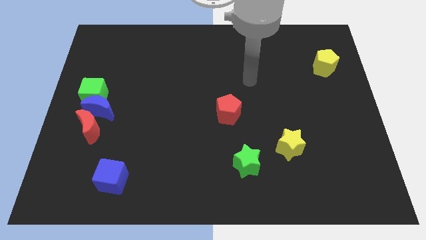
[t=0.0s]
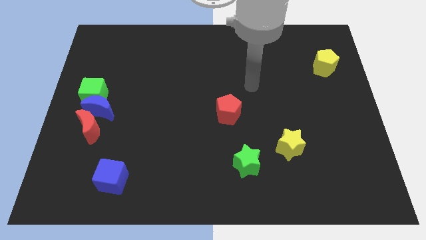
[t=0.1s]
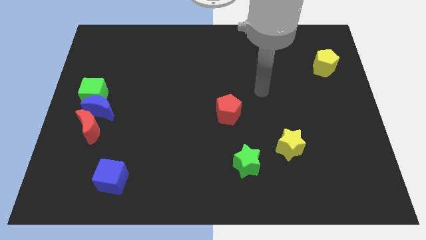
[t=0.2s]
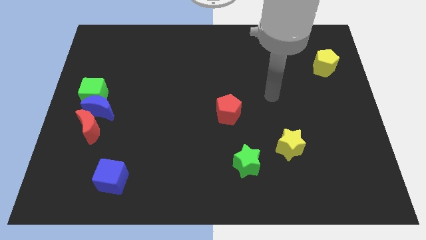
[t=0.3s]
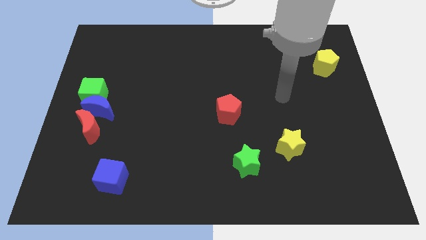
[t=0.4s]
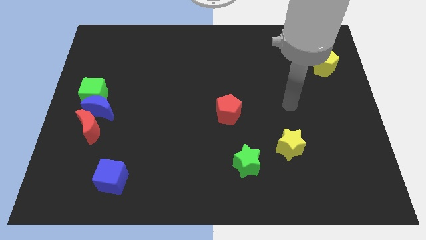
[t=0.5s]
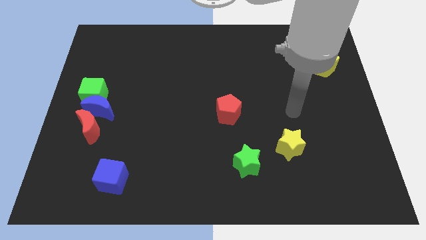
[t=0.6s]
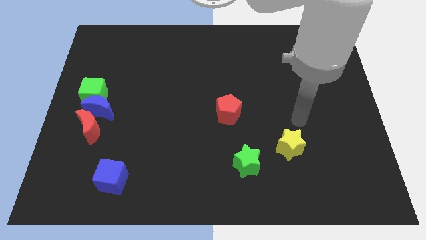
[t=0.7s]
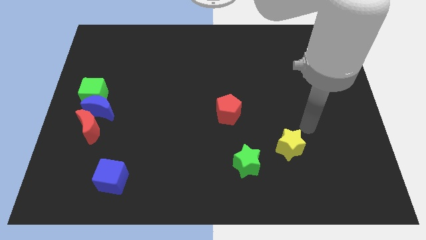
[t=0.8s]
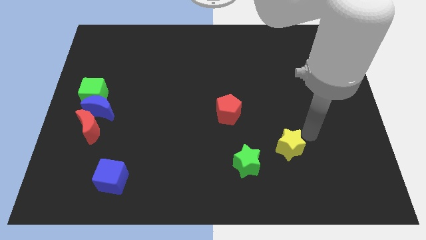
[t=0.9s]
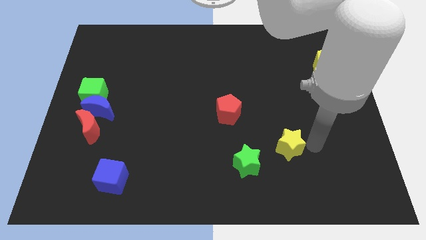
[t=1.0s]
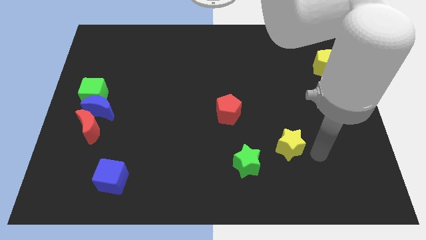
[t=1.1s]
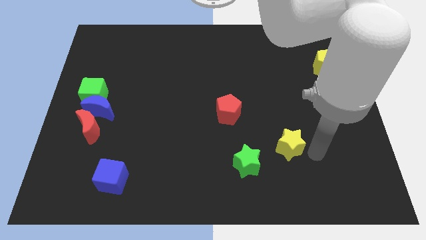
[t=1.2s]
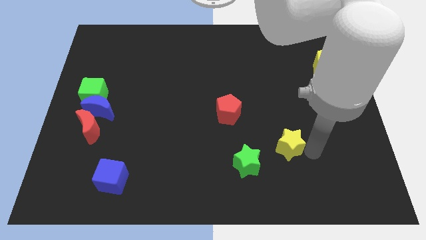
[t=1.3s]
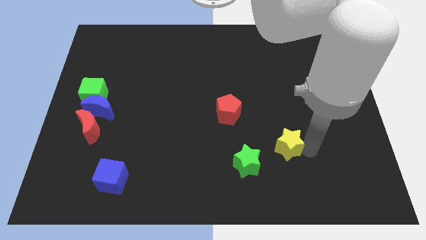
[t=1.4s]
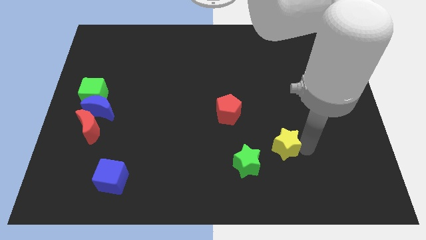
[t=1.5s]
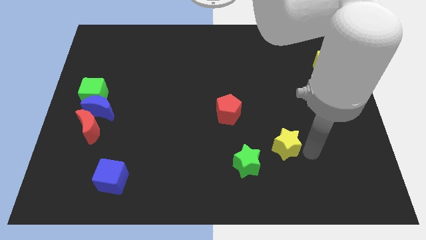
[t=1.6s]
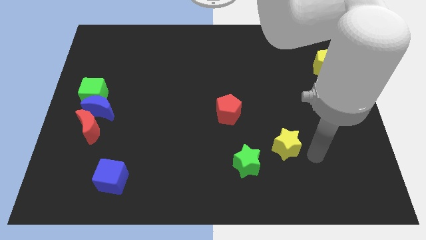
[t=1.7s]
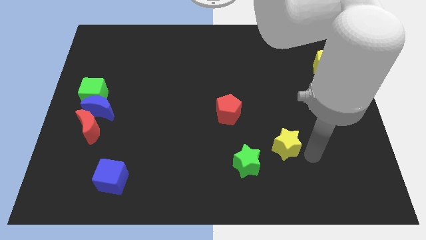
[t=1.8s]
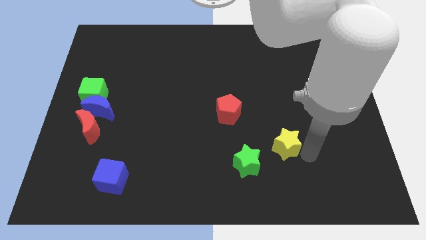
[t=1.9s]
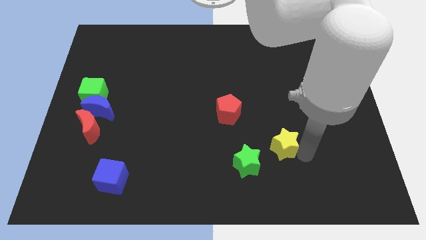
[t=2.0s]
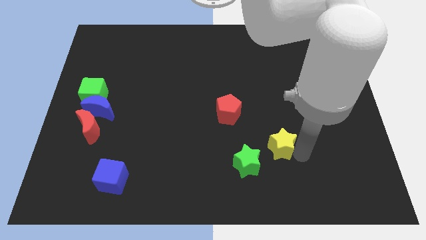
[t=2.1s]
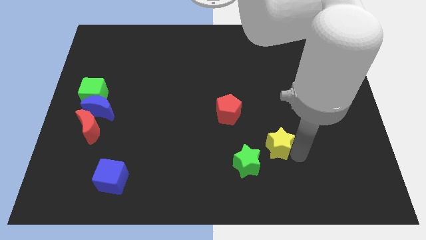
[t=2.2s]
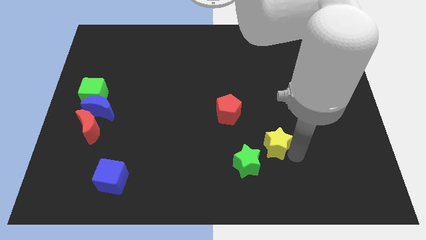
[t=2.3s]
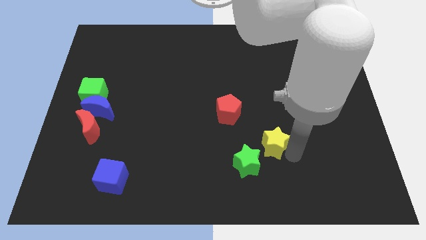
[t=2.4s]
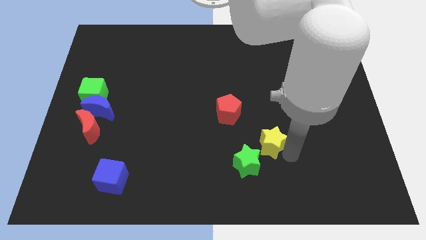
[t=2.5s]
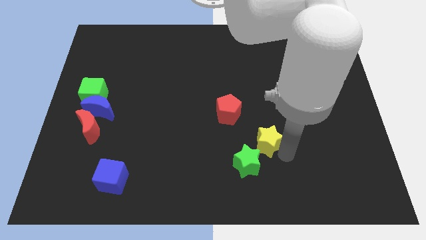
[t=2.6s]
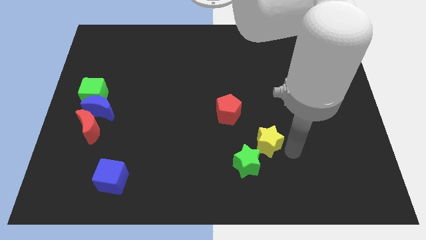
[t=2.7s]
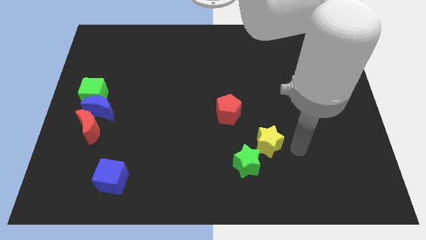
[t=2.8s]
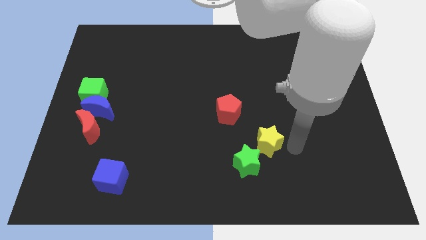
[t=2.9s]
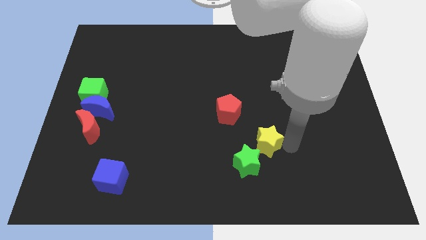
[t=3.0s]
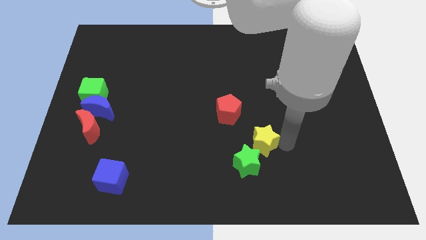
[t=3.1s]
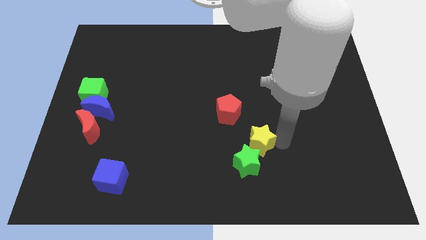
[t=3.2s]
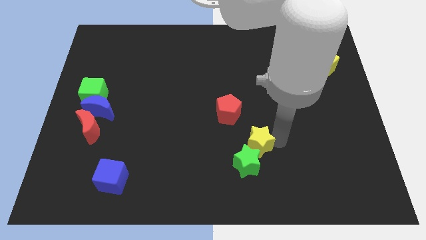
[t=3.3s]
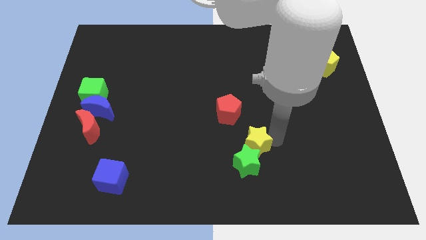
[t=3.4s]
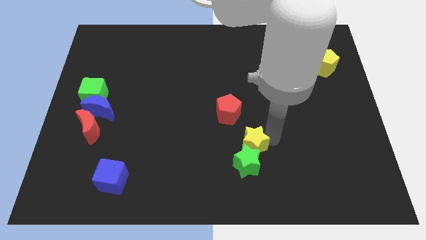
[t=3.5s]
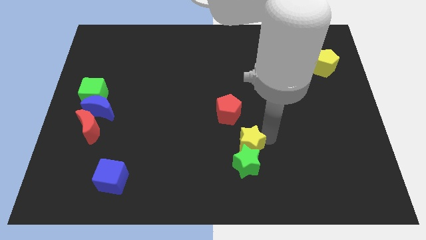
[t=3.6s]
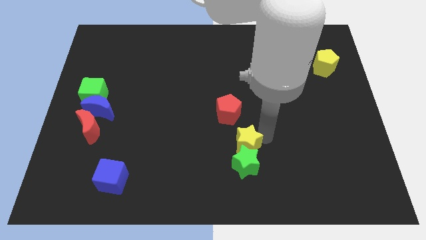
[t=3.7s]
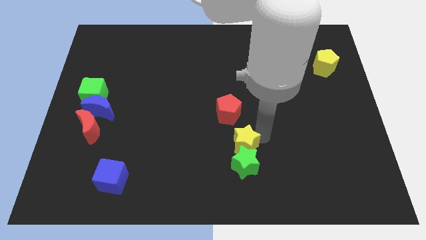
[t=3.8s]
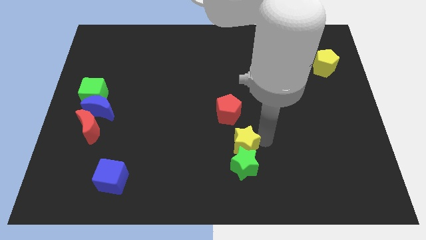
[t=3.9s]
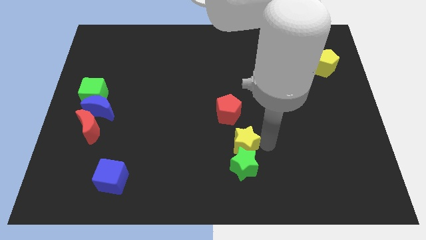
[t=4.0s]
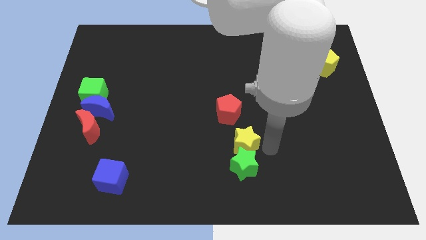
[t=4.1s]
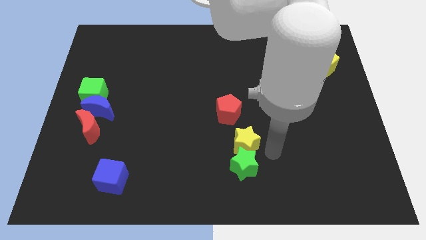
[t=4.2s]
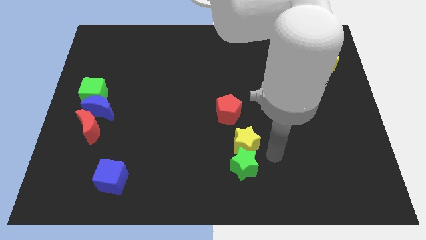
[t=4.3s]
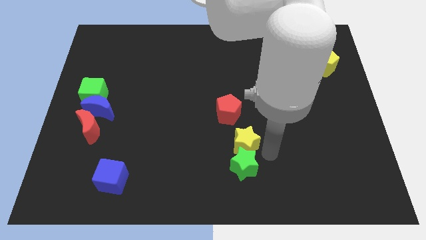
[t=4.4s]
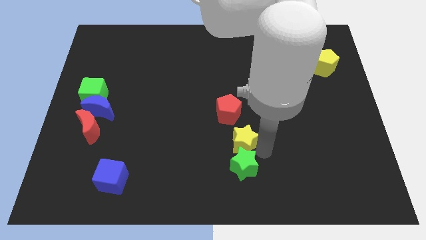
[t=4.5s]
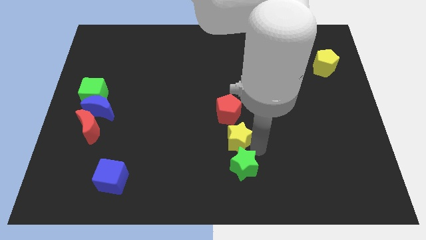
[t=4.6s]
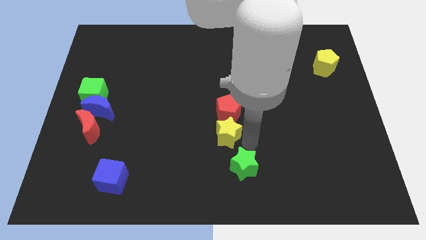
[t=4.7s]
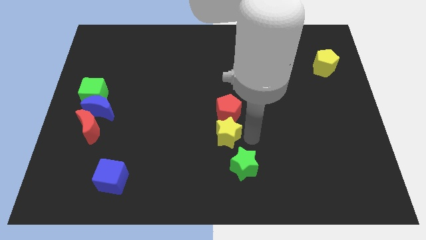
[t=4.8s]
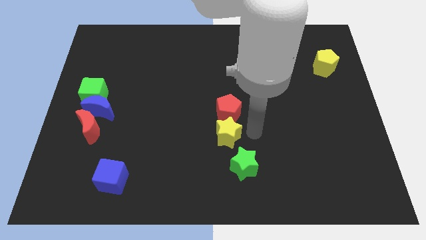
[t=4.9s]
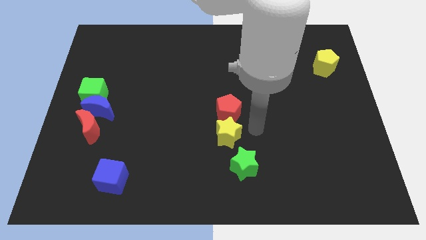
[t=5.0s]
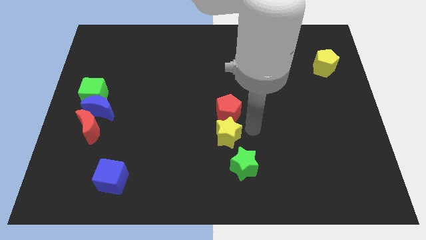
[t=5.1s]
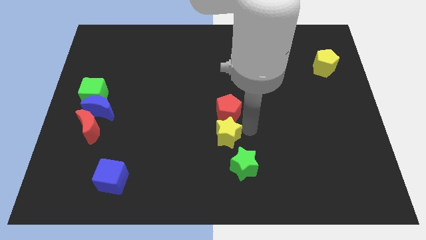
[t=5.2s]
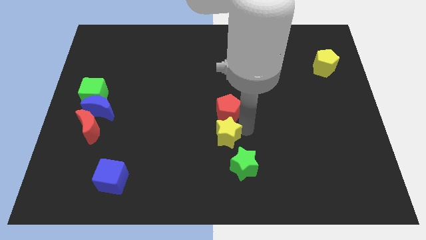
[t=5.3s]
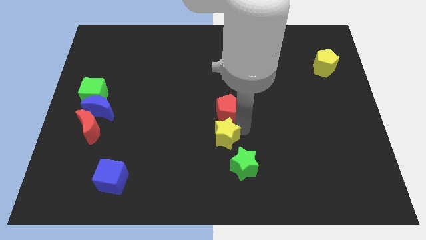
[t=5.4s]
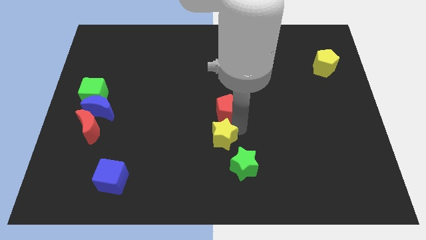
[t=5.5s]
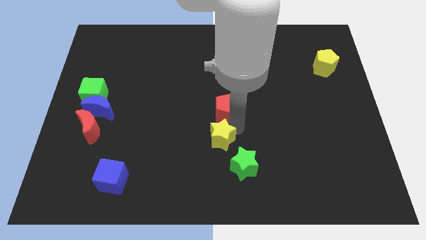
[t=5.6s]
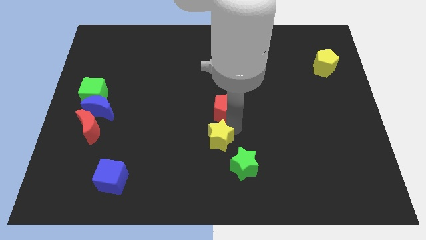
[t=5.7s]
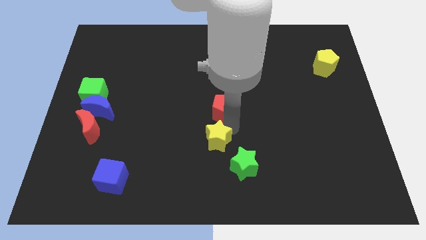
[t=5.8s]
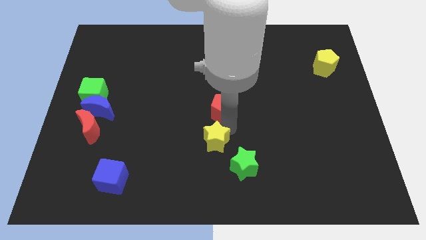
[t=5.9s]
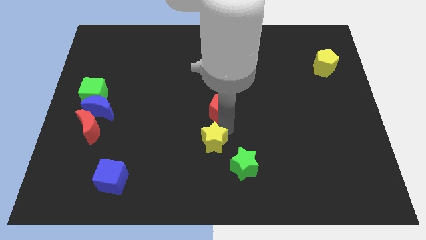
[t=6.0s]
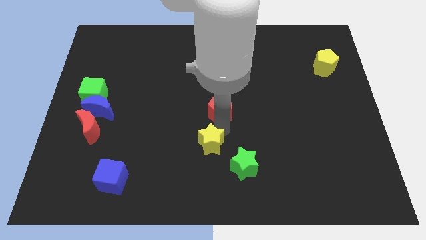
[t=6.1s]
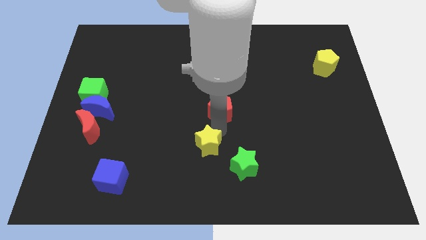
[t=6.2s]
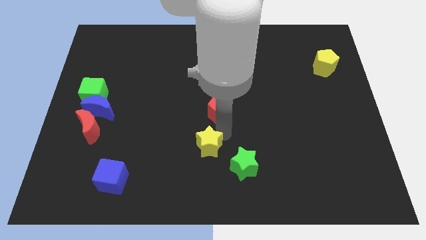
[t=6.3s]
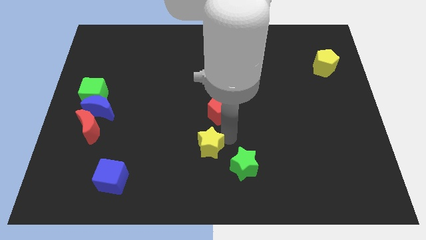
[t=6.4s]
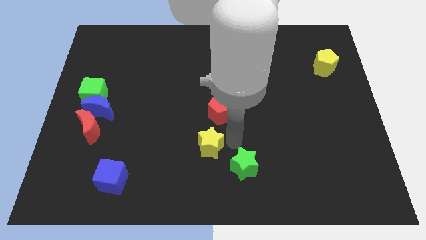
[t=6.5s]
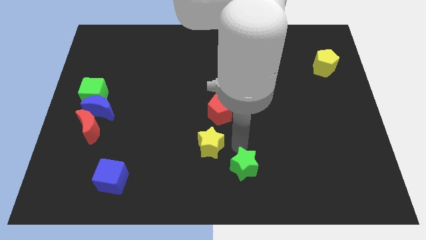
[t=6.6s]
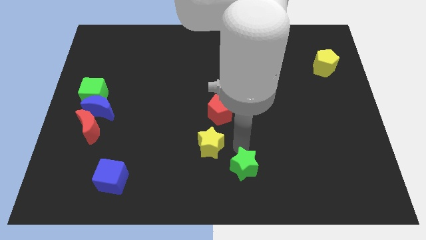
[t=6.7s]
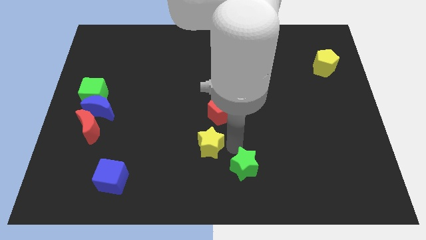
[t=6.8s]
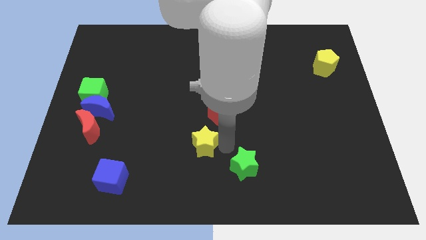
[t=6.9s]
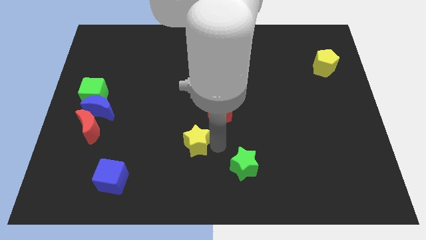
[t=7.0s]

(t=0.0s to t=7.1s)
move the yellow star to the left

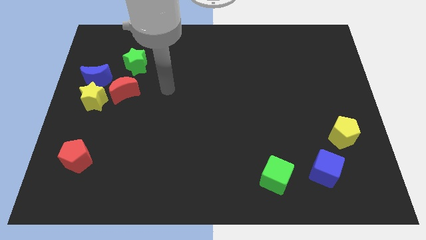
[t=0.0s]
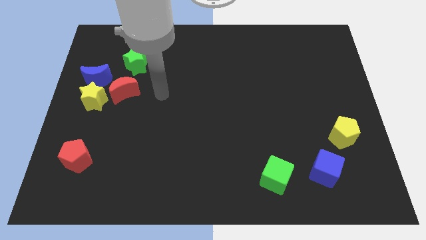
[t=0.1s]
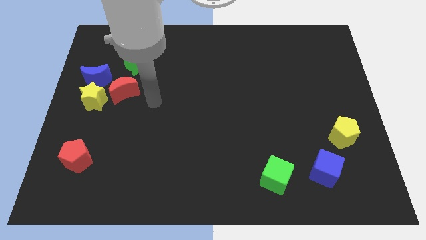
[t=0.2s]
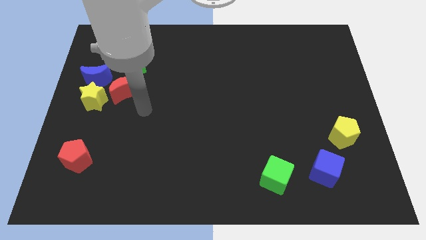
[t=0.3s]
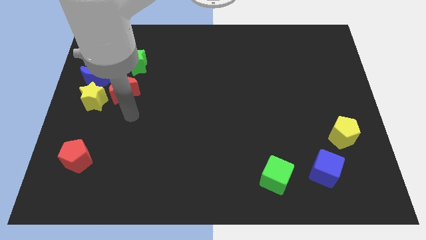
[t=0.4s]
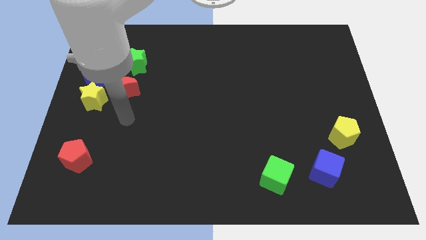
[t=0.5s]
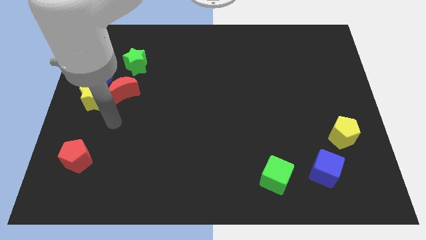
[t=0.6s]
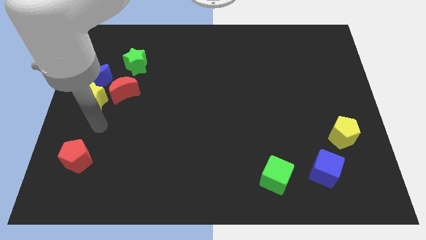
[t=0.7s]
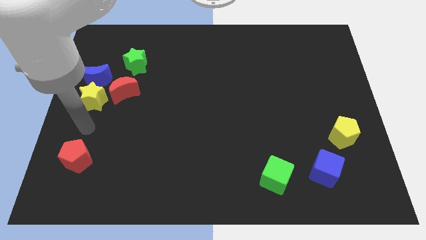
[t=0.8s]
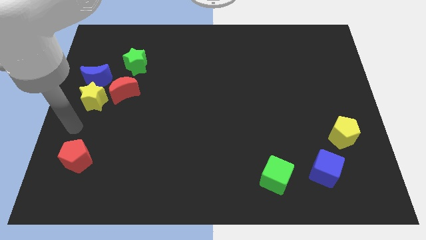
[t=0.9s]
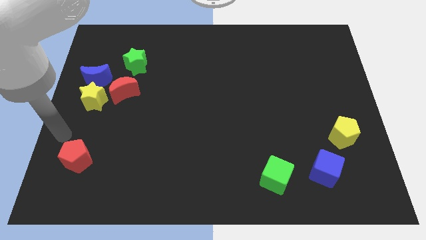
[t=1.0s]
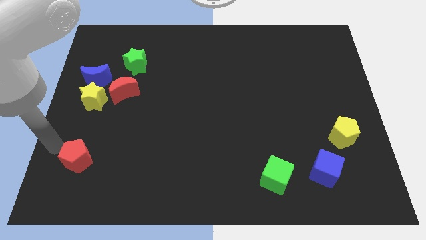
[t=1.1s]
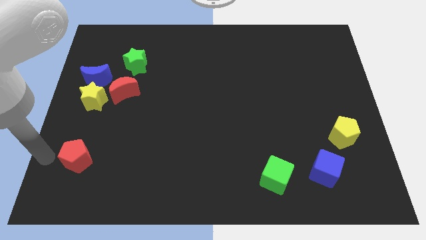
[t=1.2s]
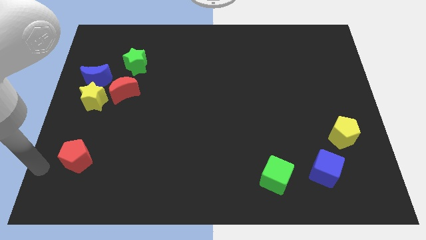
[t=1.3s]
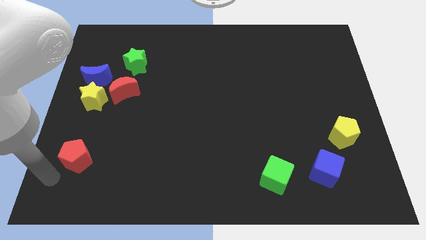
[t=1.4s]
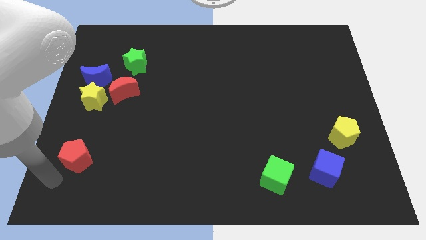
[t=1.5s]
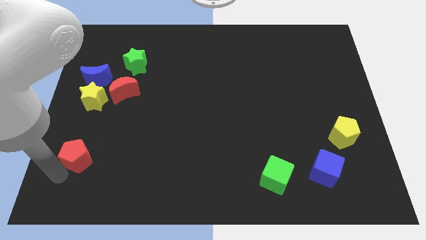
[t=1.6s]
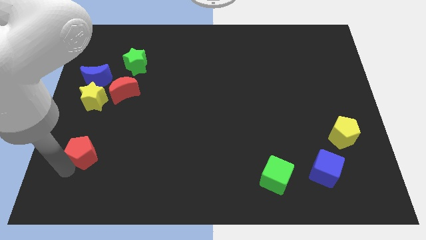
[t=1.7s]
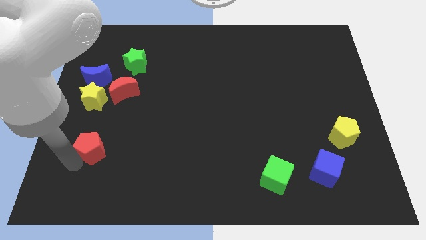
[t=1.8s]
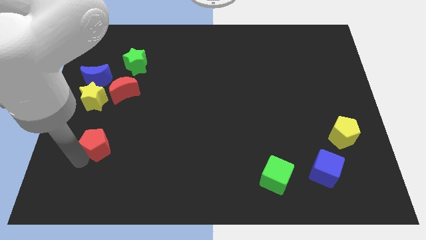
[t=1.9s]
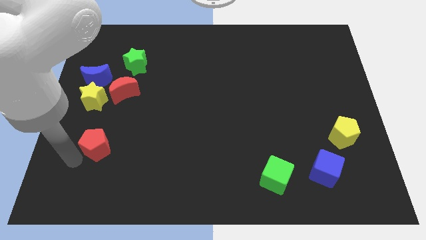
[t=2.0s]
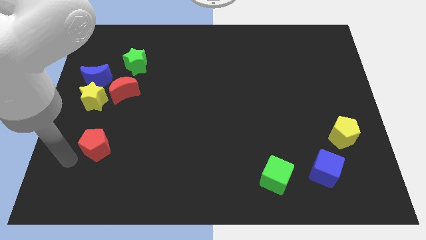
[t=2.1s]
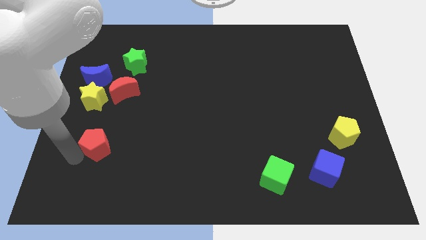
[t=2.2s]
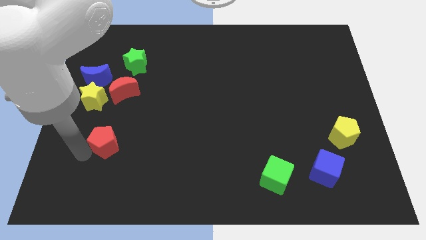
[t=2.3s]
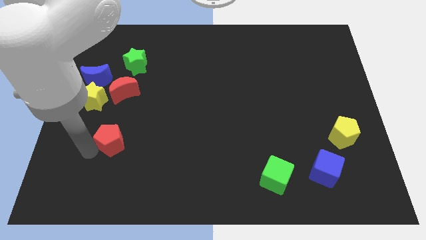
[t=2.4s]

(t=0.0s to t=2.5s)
push the red pentagon upwards and then to the right slightly
